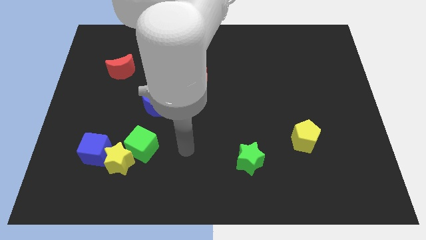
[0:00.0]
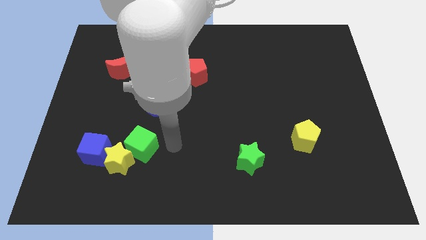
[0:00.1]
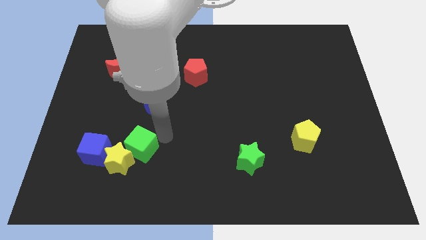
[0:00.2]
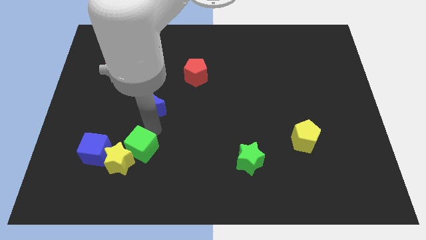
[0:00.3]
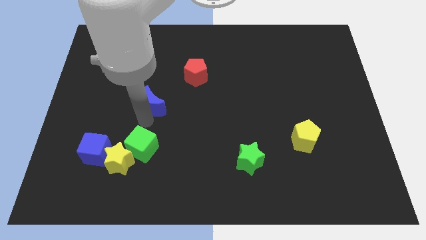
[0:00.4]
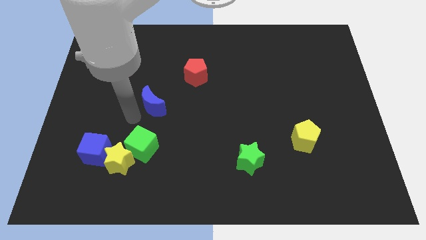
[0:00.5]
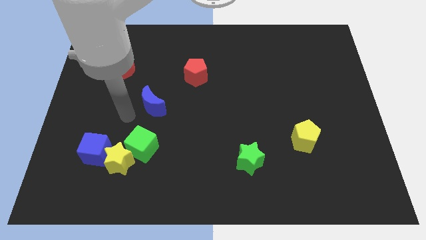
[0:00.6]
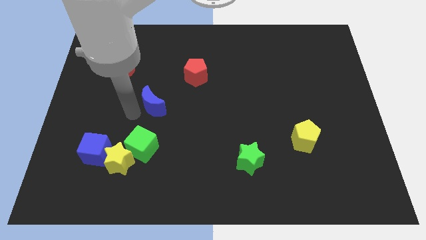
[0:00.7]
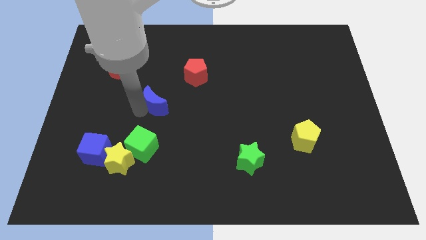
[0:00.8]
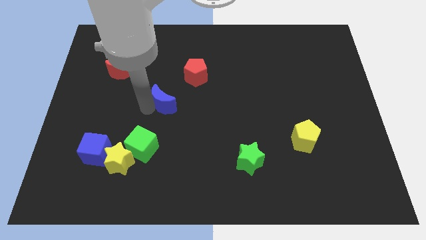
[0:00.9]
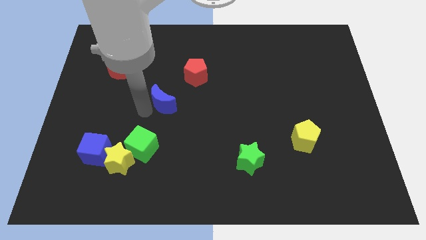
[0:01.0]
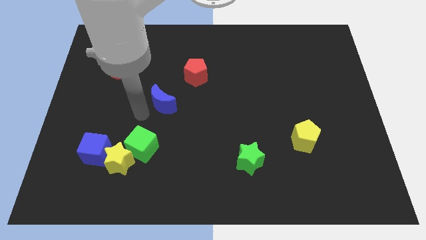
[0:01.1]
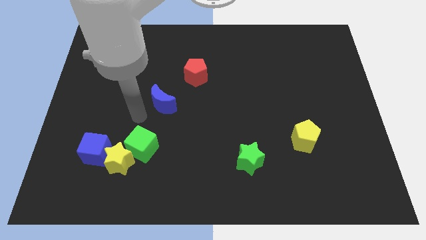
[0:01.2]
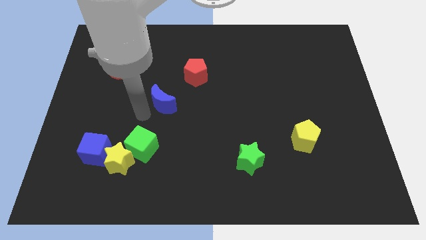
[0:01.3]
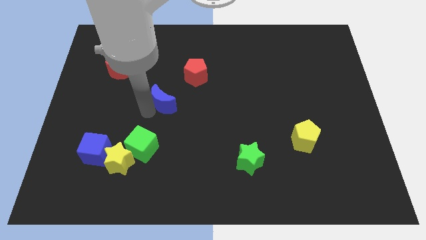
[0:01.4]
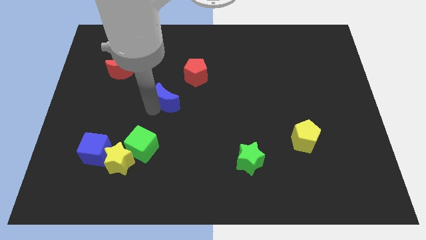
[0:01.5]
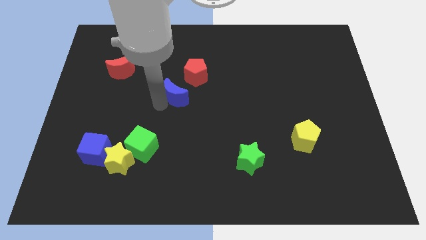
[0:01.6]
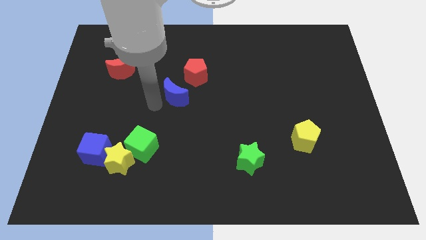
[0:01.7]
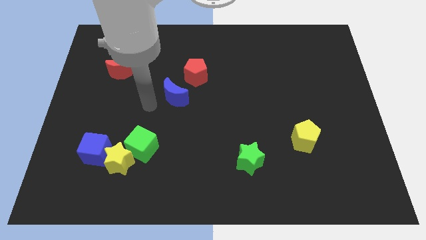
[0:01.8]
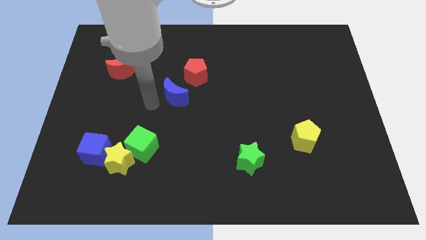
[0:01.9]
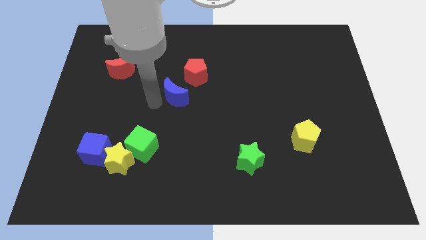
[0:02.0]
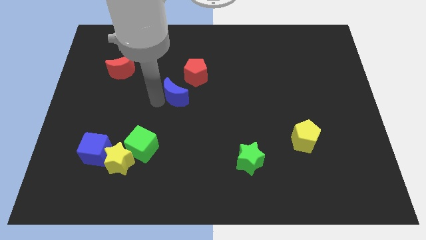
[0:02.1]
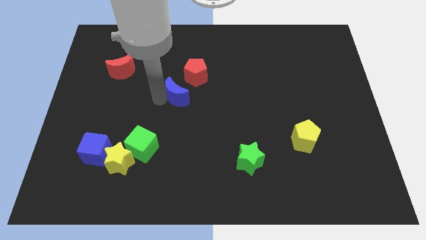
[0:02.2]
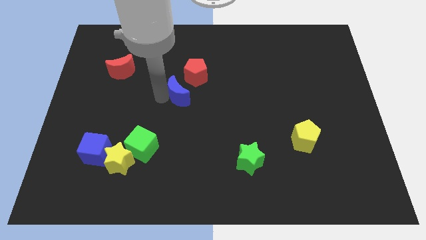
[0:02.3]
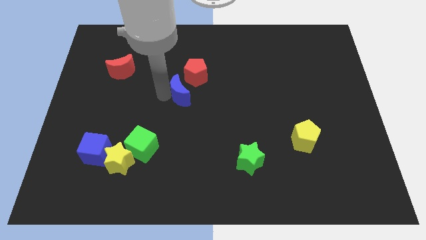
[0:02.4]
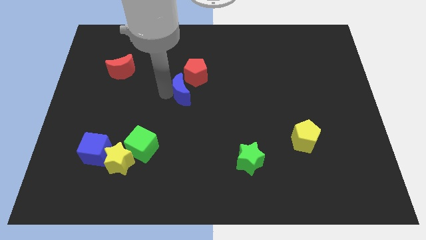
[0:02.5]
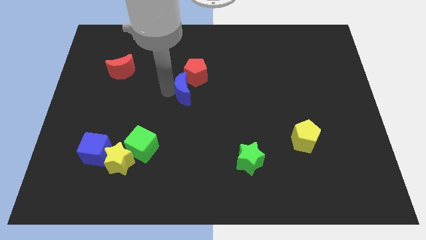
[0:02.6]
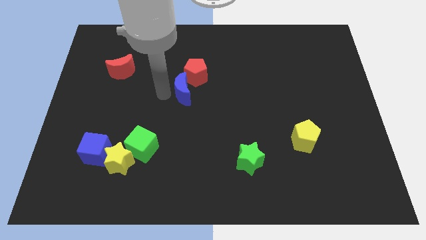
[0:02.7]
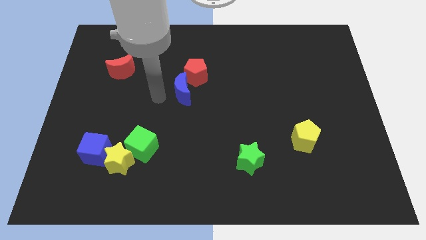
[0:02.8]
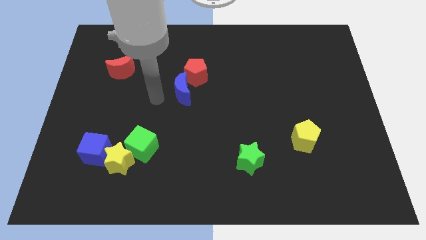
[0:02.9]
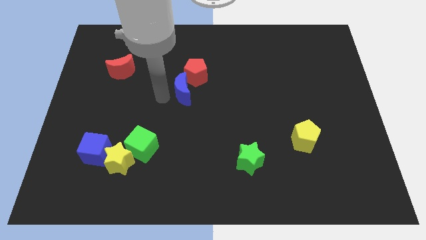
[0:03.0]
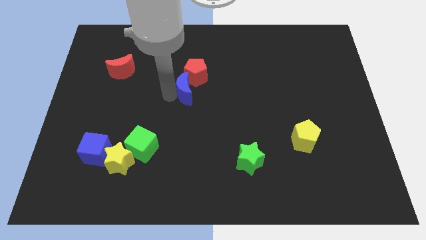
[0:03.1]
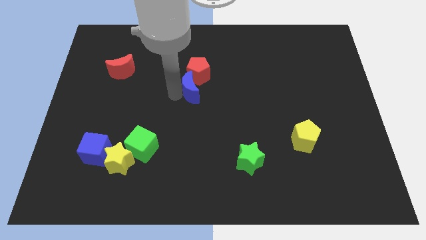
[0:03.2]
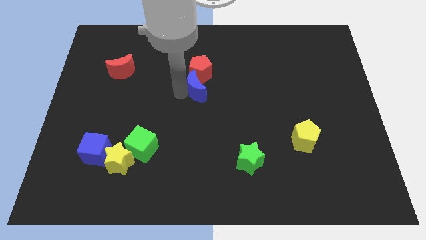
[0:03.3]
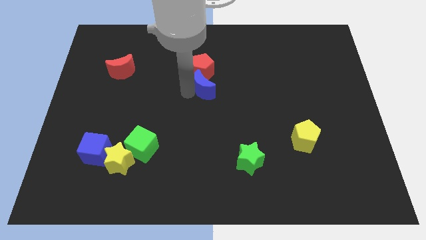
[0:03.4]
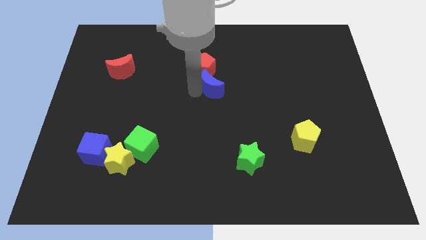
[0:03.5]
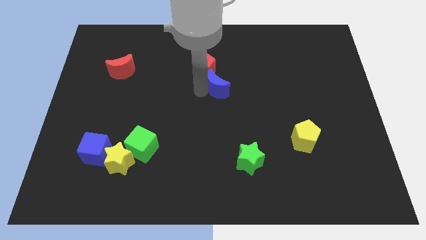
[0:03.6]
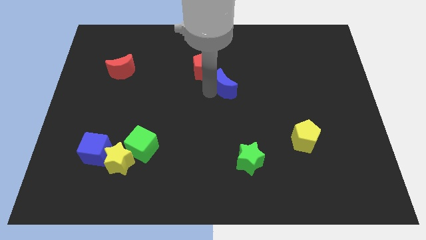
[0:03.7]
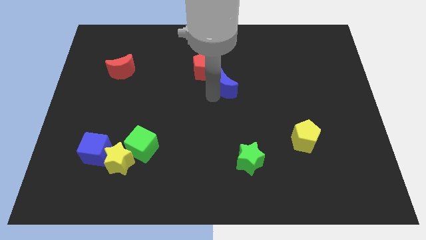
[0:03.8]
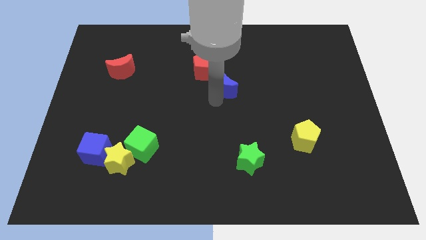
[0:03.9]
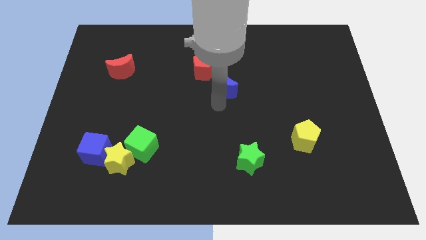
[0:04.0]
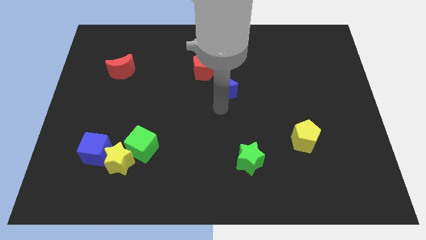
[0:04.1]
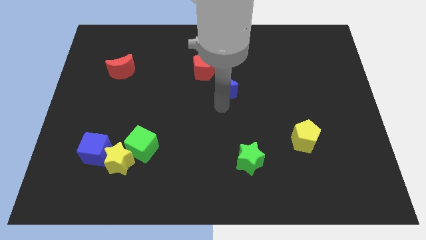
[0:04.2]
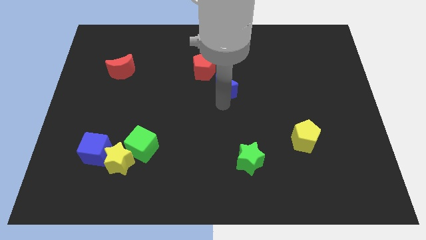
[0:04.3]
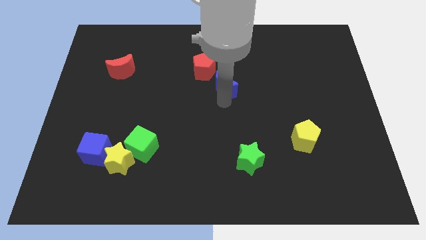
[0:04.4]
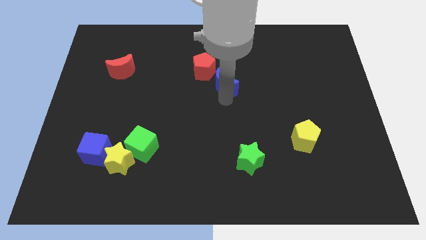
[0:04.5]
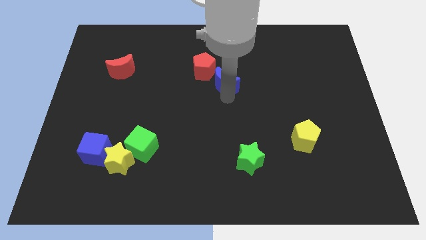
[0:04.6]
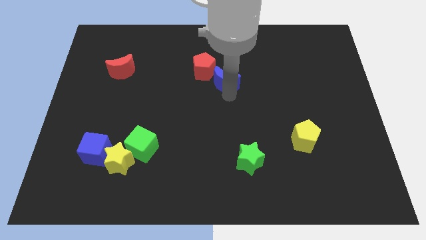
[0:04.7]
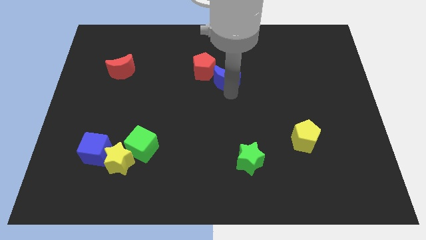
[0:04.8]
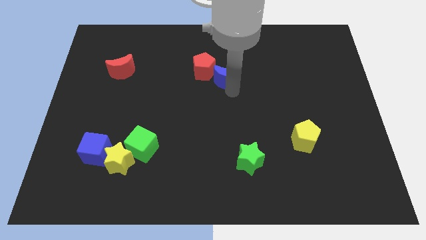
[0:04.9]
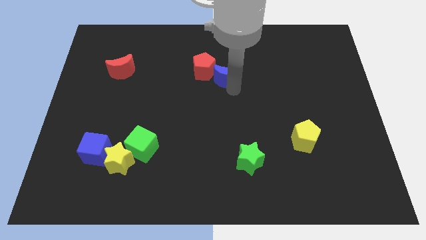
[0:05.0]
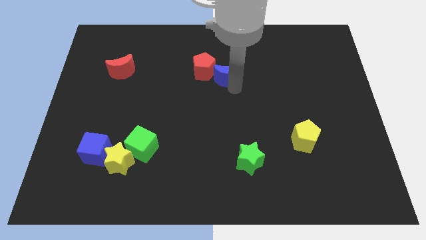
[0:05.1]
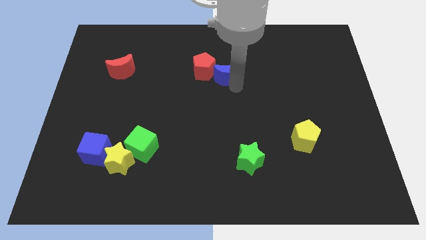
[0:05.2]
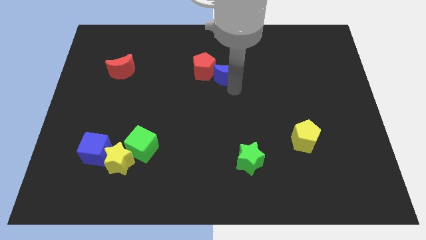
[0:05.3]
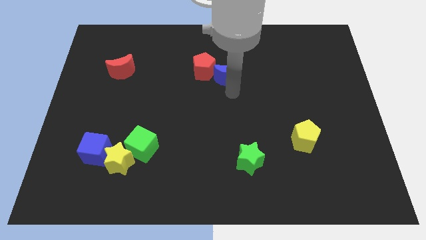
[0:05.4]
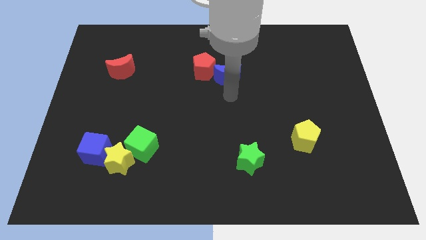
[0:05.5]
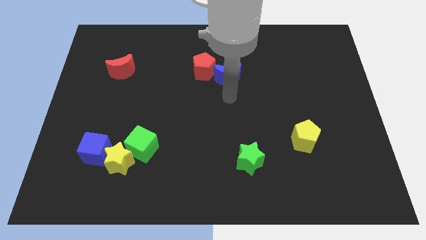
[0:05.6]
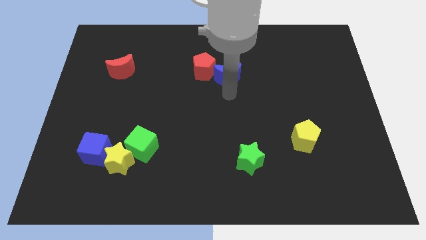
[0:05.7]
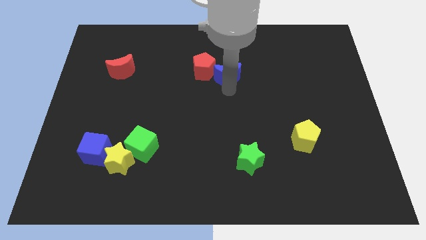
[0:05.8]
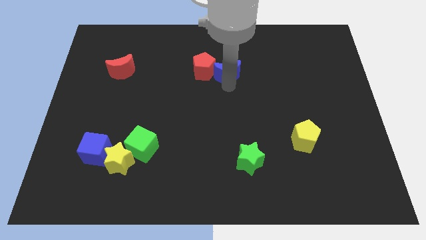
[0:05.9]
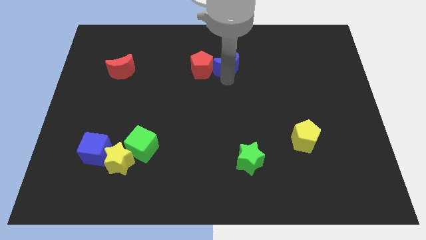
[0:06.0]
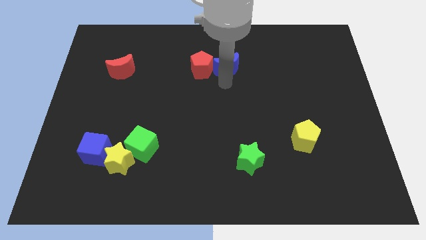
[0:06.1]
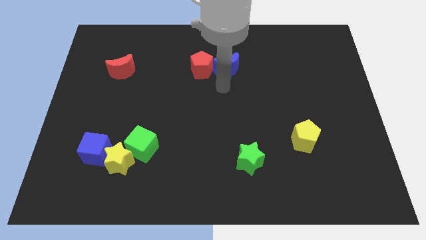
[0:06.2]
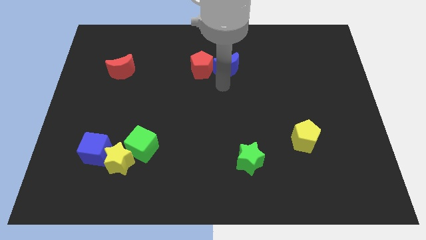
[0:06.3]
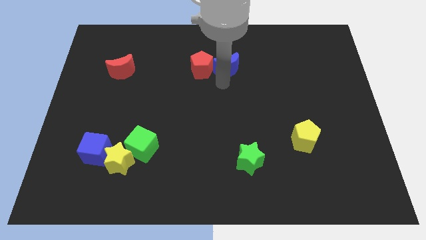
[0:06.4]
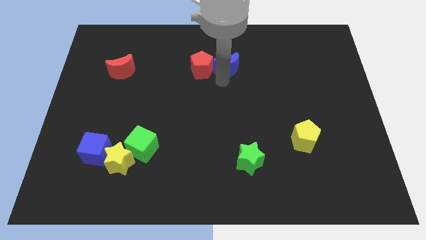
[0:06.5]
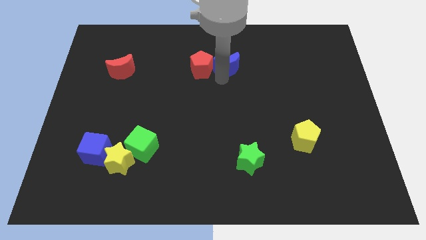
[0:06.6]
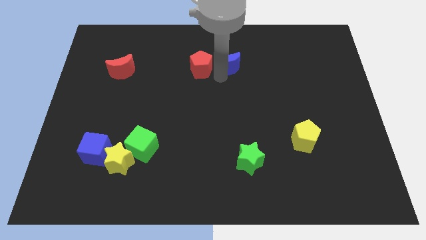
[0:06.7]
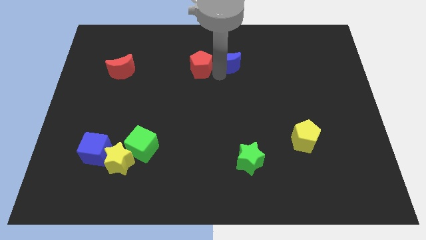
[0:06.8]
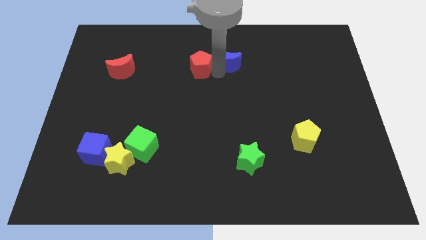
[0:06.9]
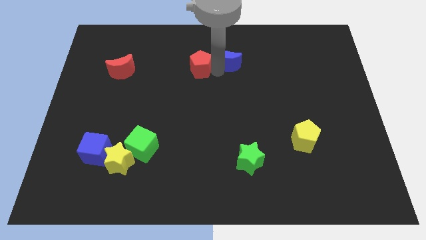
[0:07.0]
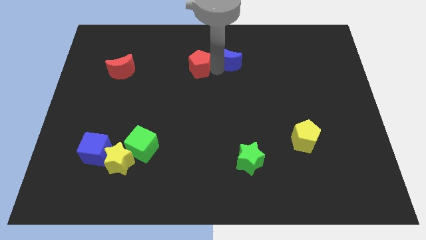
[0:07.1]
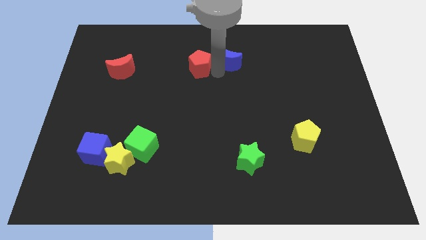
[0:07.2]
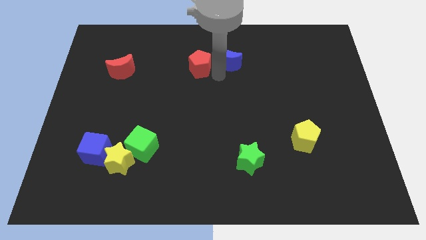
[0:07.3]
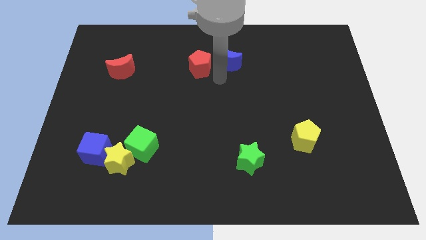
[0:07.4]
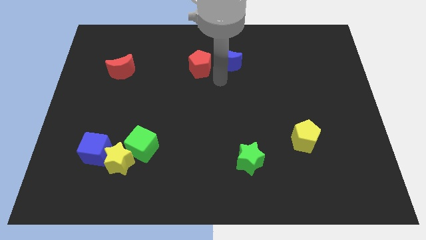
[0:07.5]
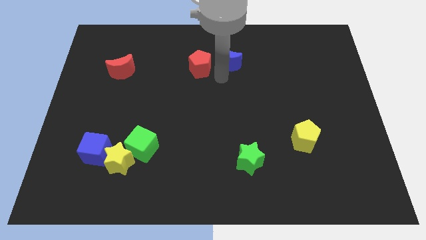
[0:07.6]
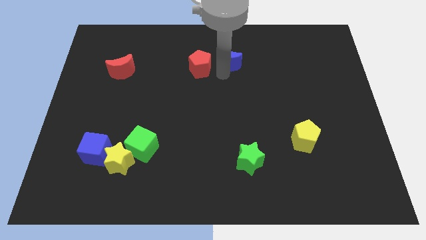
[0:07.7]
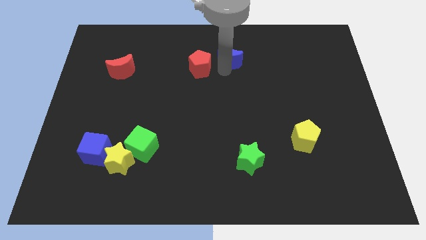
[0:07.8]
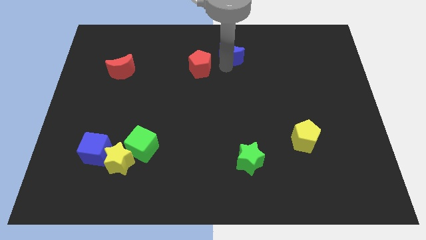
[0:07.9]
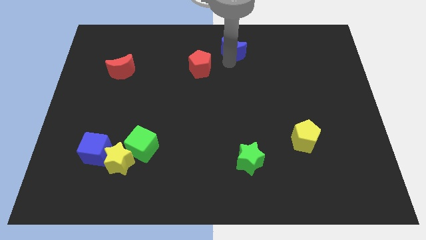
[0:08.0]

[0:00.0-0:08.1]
slide the blue moon to the top side
